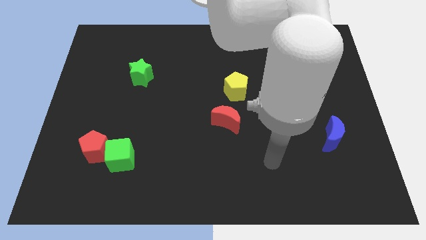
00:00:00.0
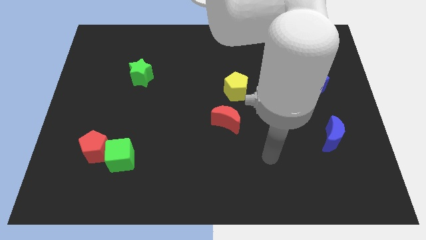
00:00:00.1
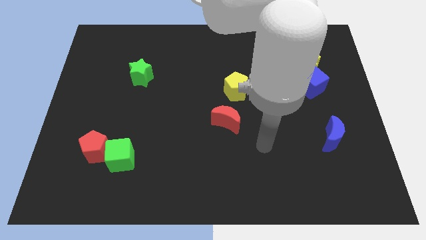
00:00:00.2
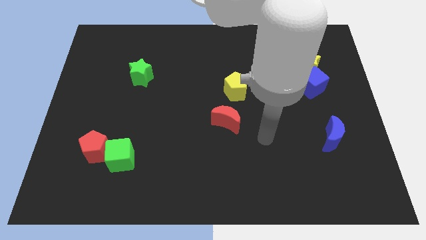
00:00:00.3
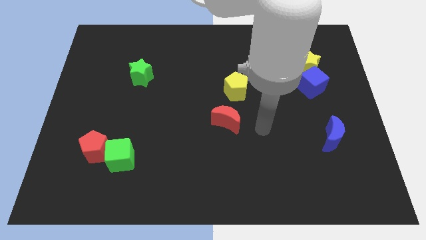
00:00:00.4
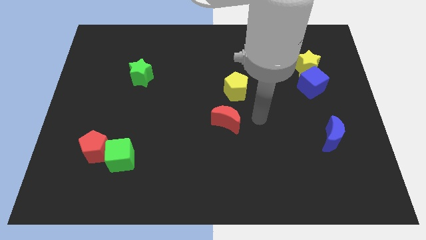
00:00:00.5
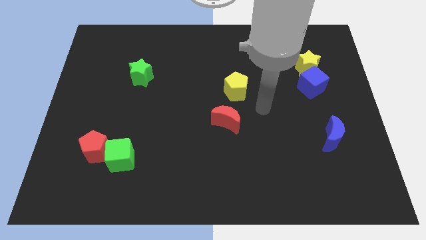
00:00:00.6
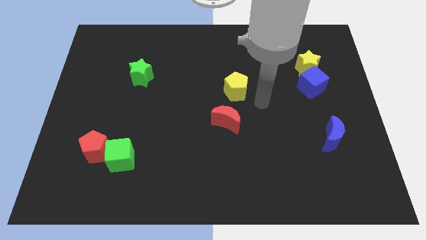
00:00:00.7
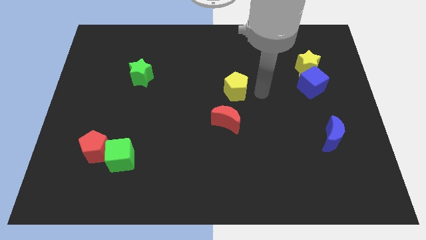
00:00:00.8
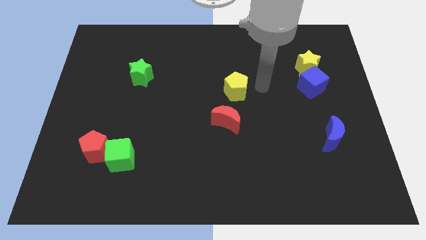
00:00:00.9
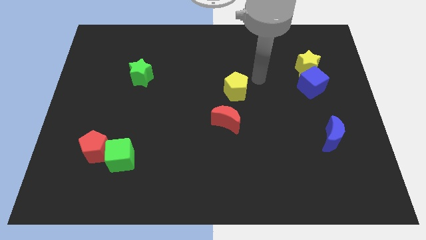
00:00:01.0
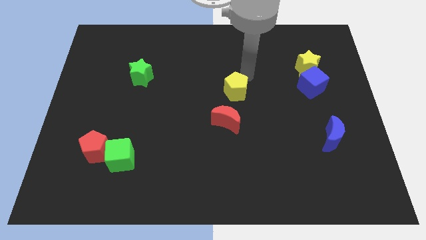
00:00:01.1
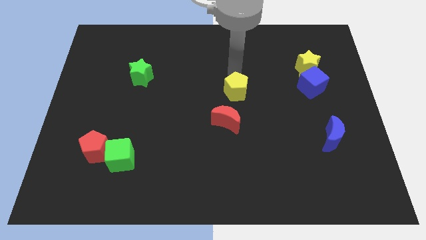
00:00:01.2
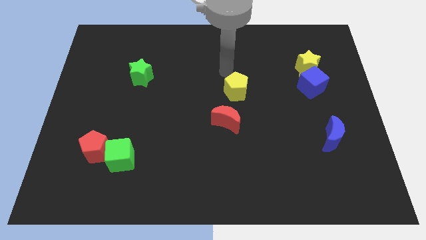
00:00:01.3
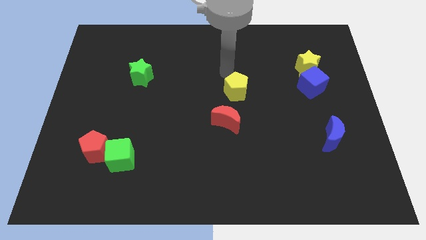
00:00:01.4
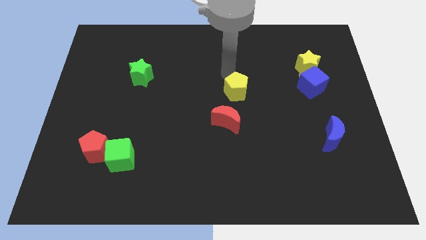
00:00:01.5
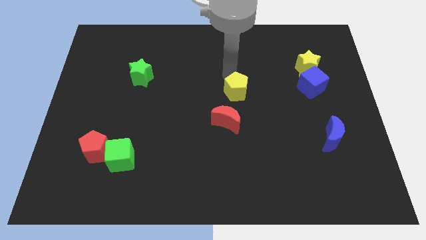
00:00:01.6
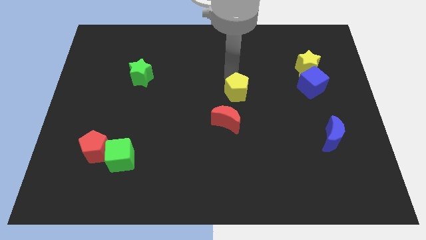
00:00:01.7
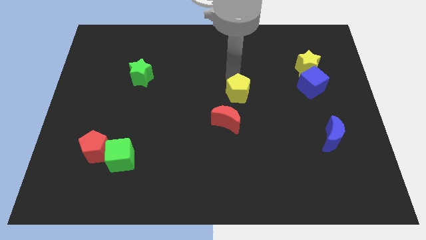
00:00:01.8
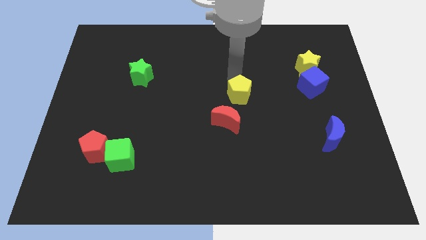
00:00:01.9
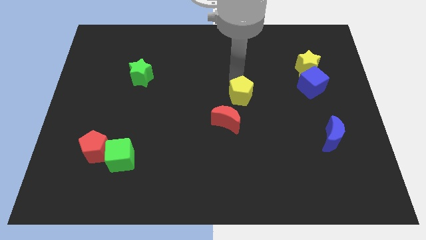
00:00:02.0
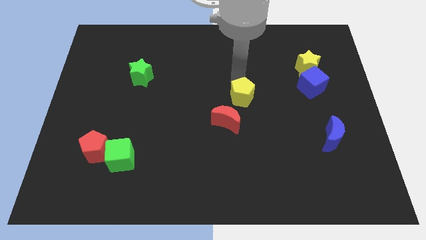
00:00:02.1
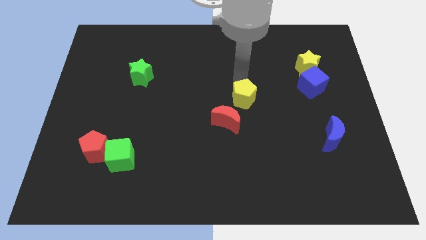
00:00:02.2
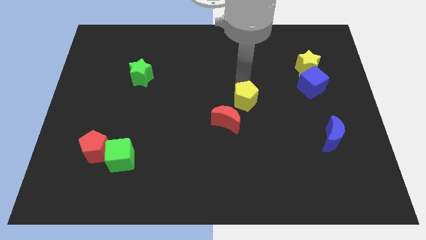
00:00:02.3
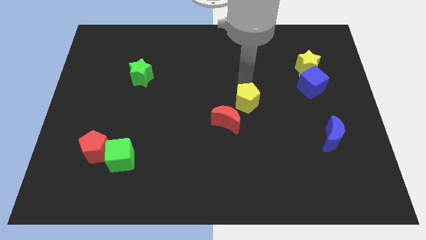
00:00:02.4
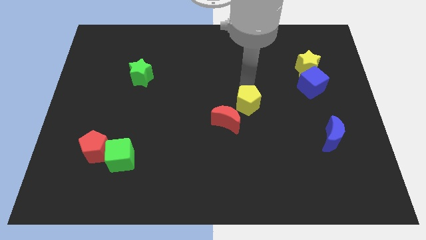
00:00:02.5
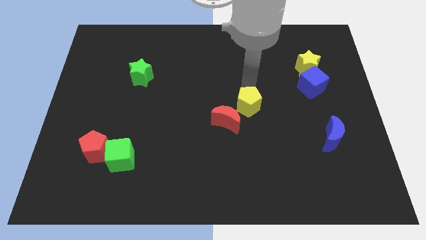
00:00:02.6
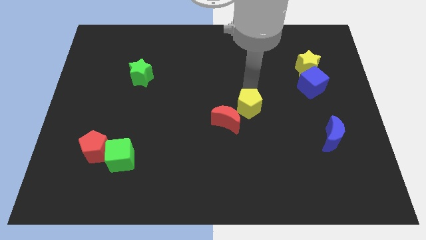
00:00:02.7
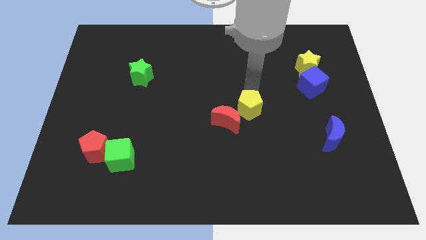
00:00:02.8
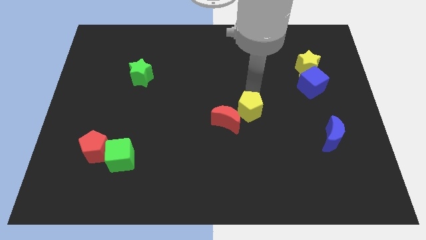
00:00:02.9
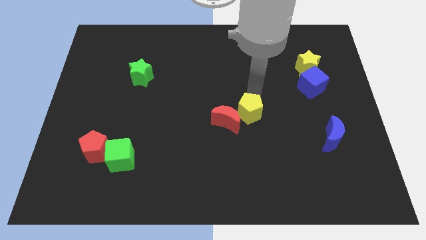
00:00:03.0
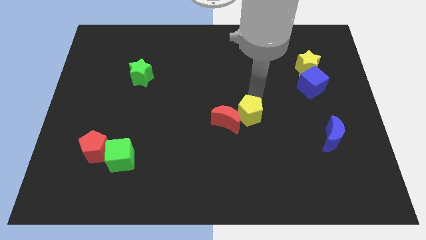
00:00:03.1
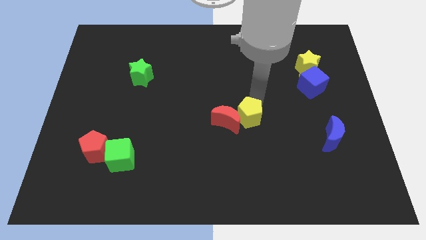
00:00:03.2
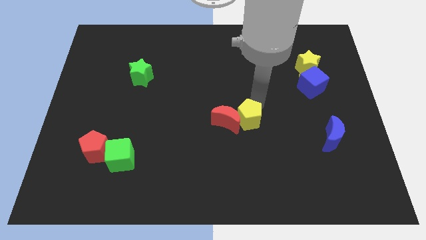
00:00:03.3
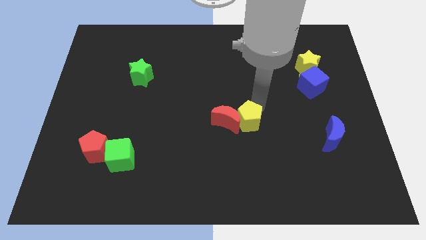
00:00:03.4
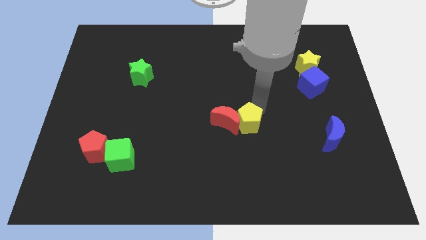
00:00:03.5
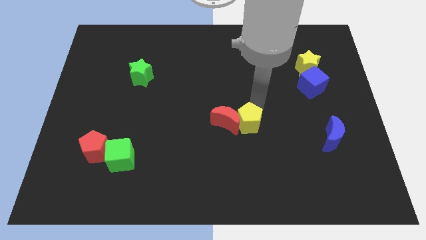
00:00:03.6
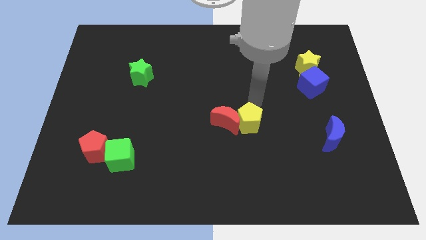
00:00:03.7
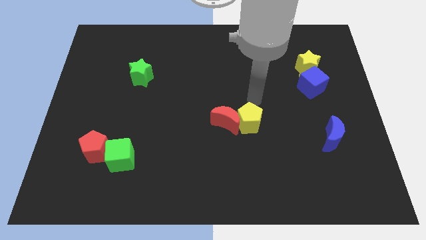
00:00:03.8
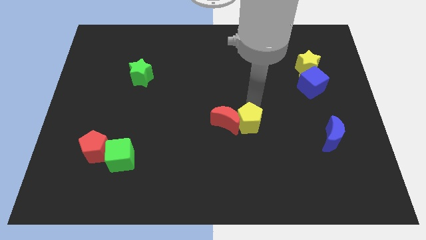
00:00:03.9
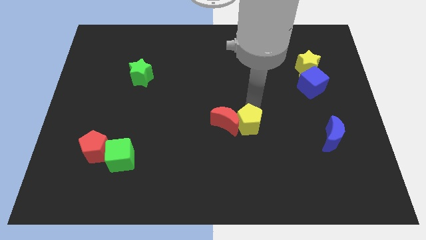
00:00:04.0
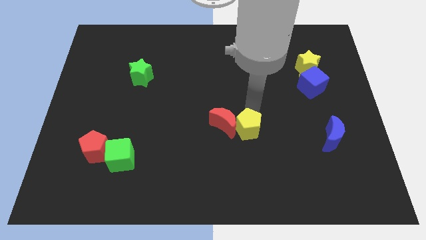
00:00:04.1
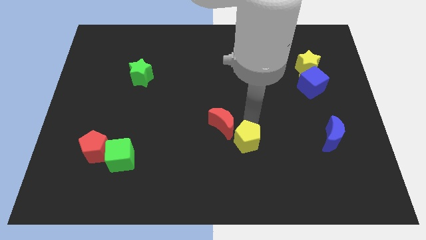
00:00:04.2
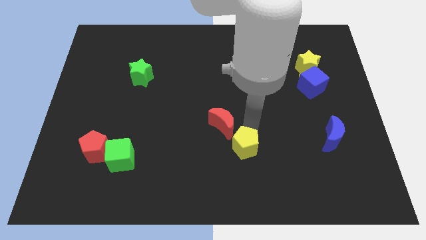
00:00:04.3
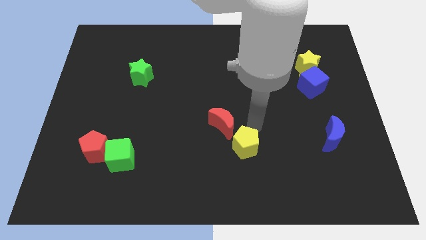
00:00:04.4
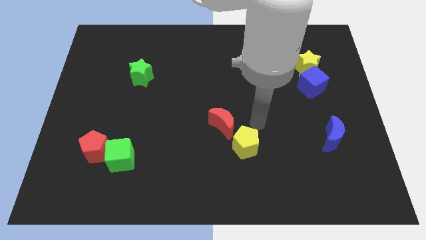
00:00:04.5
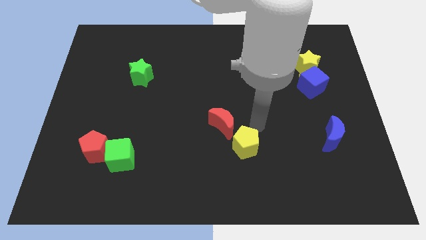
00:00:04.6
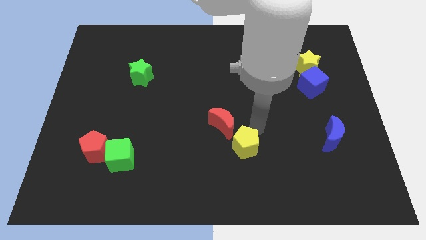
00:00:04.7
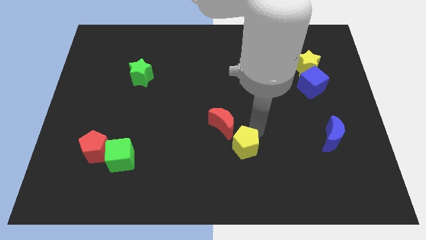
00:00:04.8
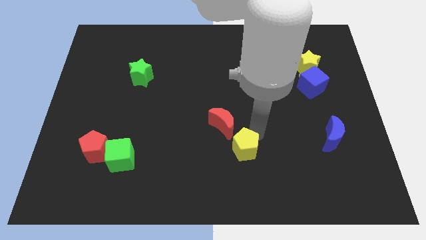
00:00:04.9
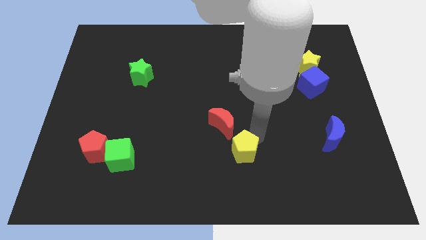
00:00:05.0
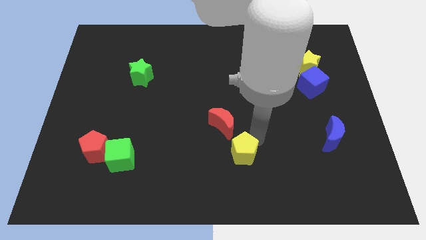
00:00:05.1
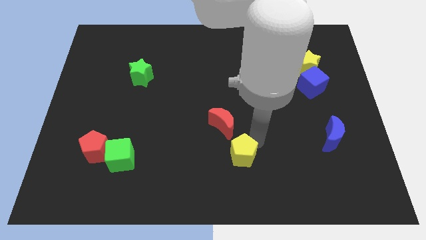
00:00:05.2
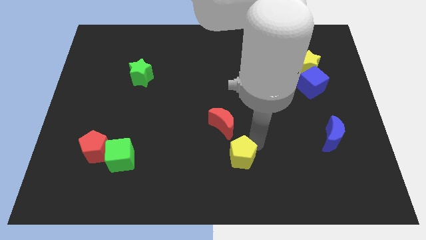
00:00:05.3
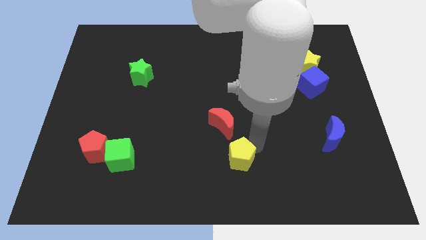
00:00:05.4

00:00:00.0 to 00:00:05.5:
push the yellow pentagon to the bottom

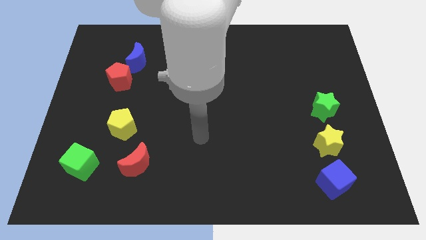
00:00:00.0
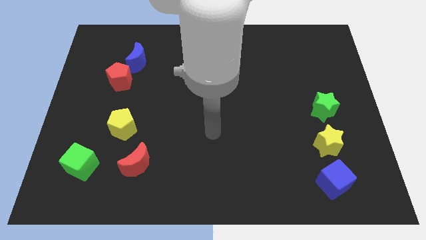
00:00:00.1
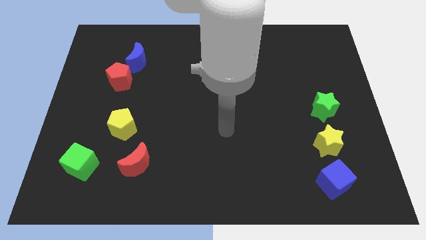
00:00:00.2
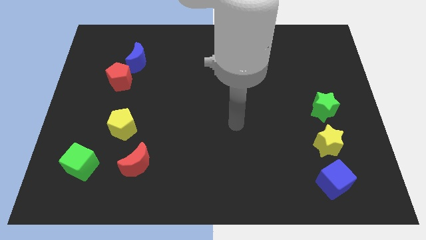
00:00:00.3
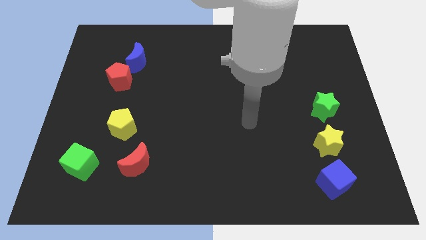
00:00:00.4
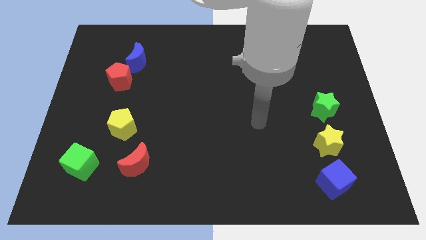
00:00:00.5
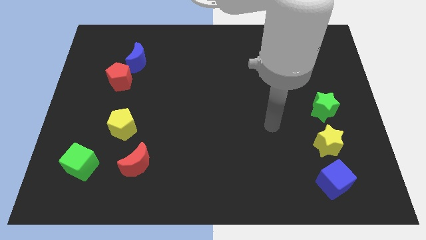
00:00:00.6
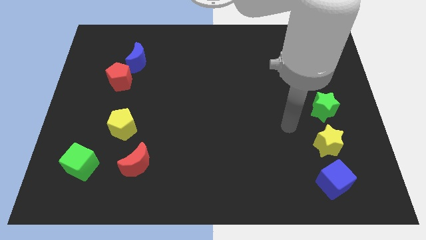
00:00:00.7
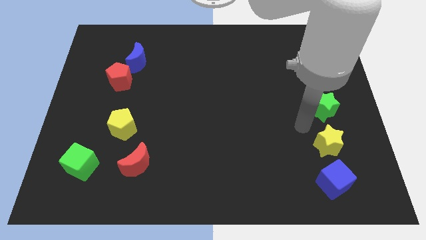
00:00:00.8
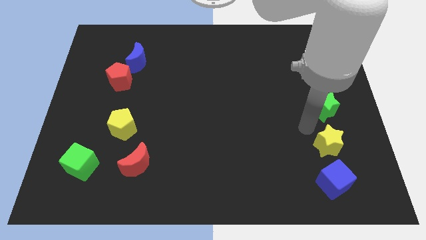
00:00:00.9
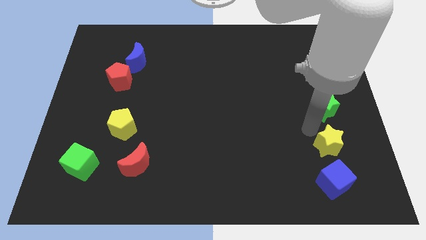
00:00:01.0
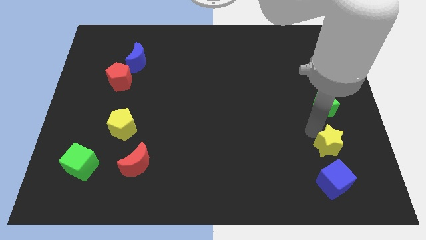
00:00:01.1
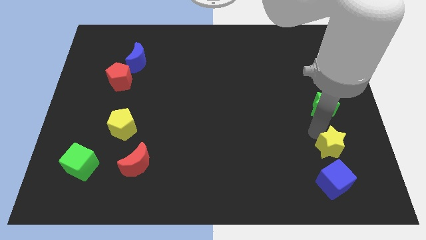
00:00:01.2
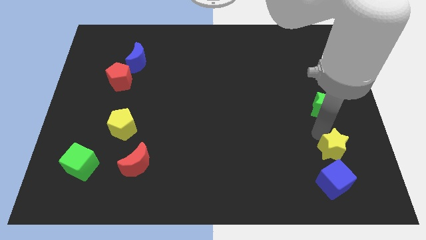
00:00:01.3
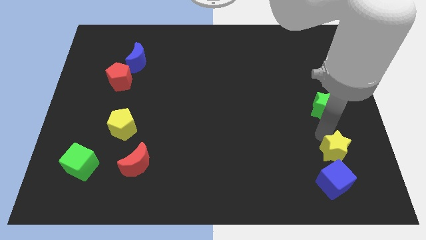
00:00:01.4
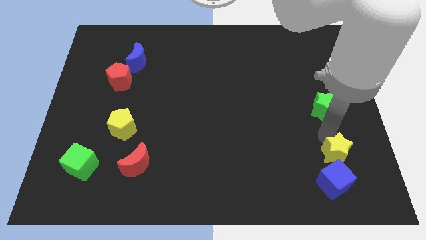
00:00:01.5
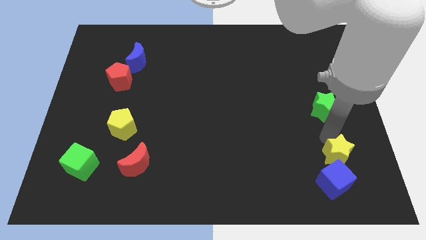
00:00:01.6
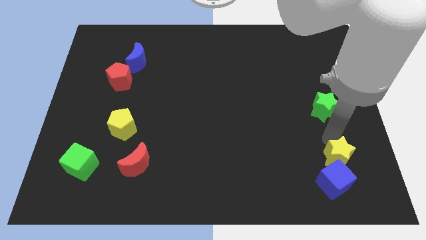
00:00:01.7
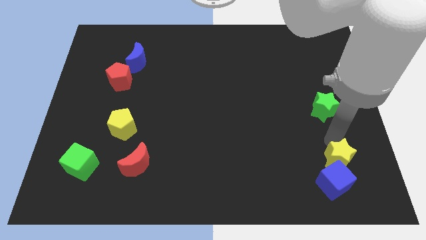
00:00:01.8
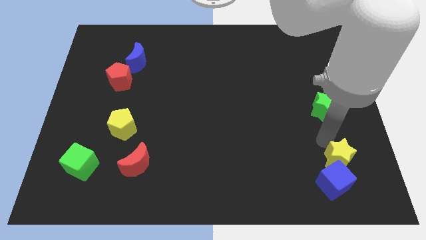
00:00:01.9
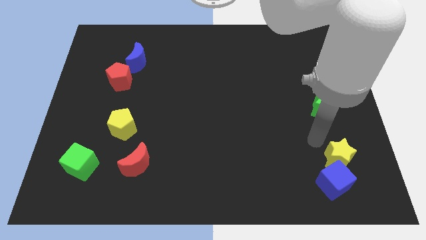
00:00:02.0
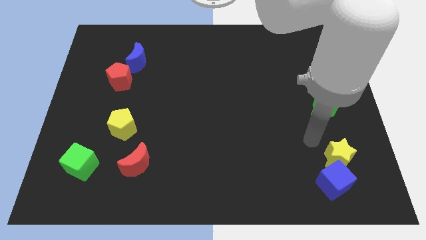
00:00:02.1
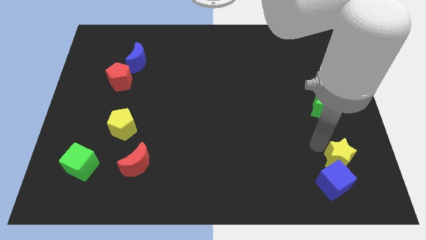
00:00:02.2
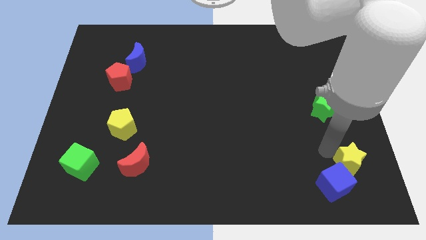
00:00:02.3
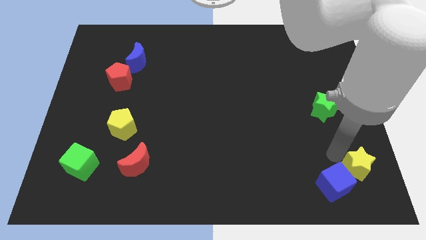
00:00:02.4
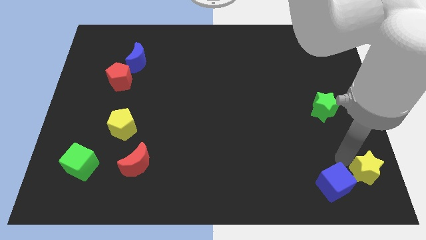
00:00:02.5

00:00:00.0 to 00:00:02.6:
put the yellow star to the bottom right
